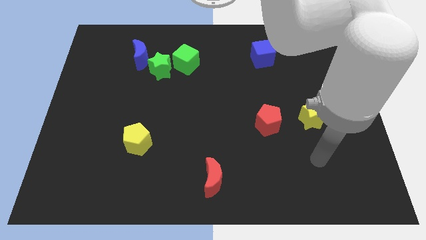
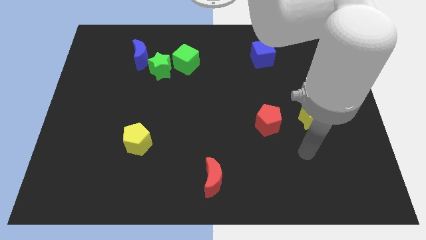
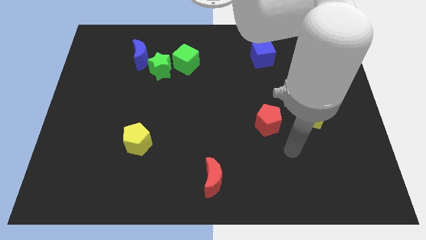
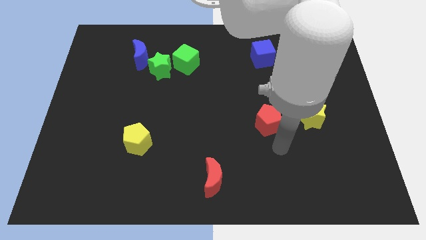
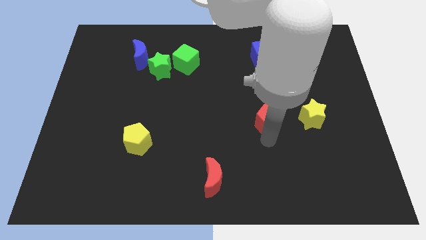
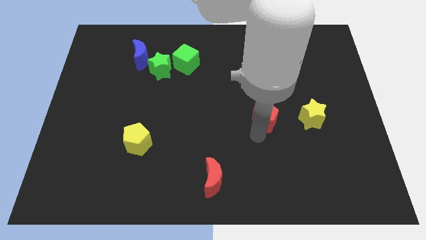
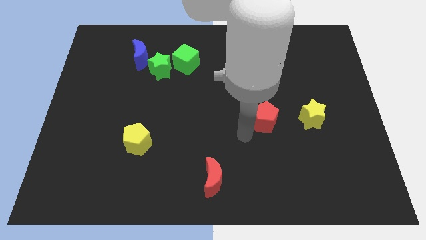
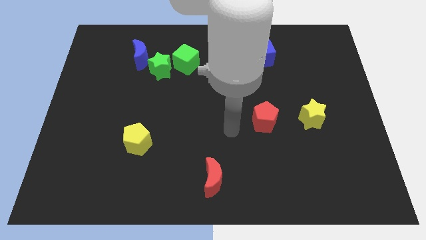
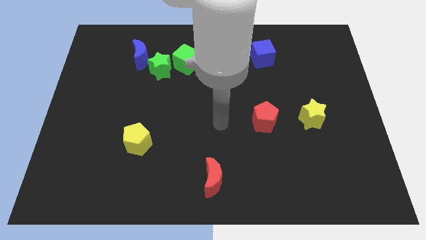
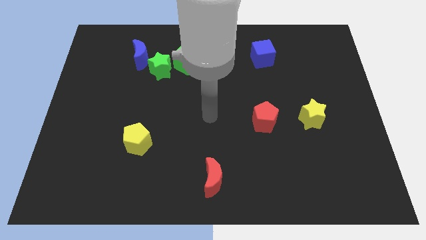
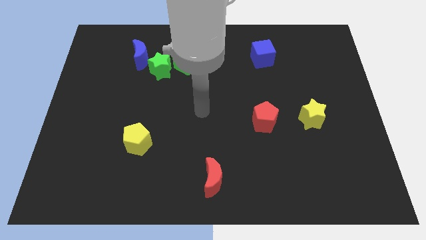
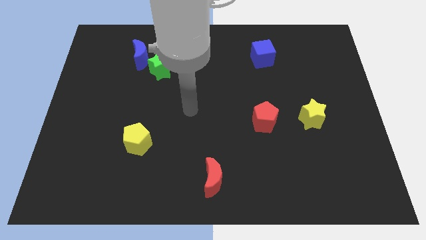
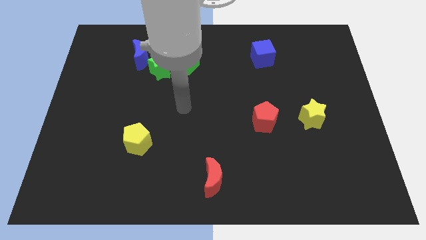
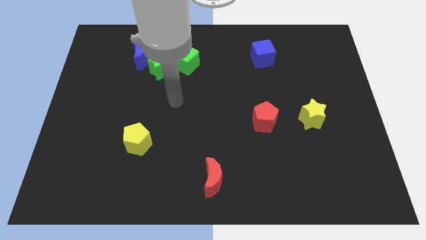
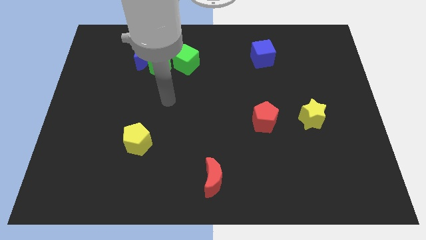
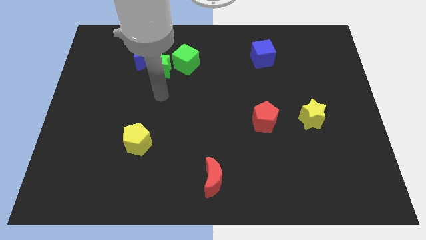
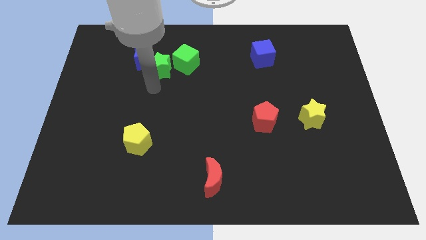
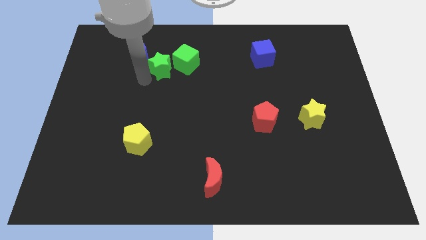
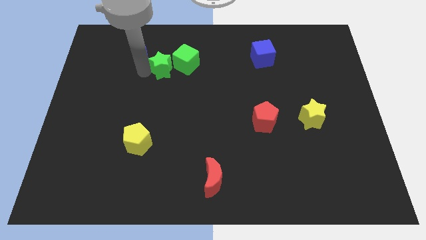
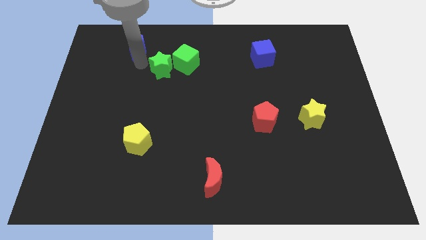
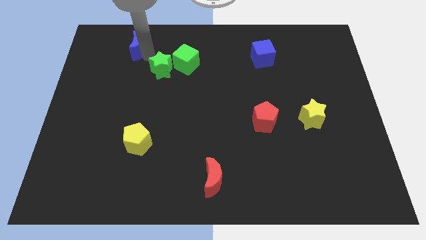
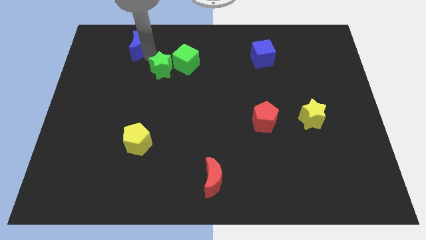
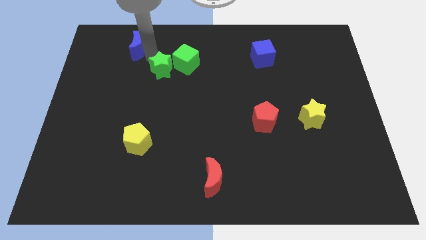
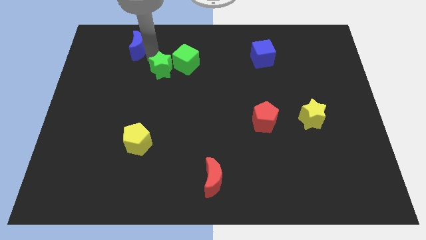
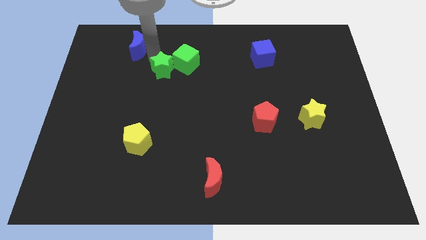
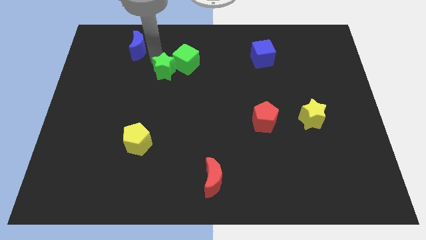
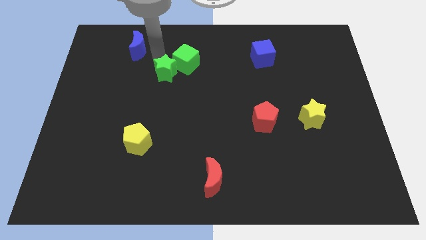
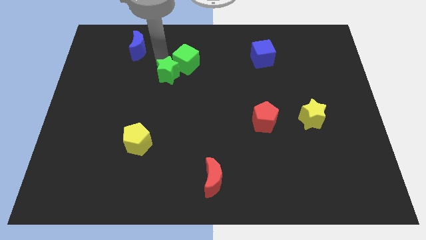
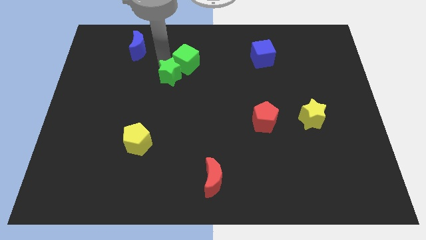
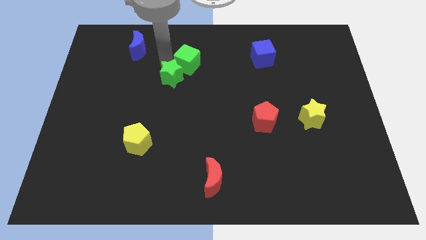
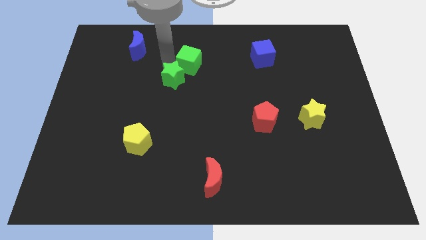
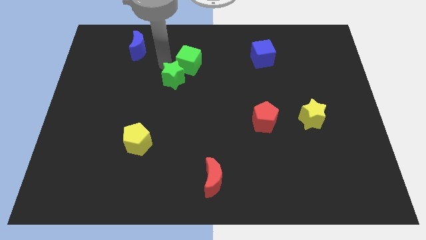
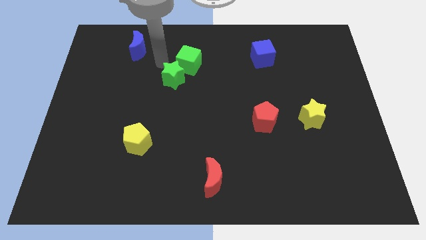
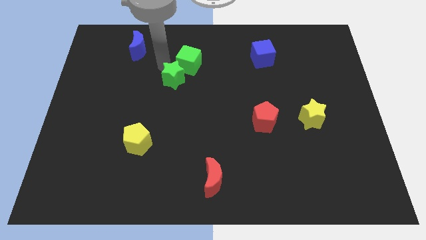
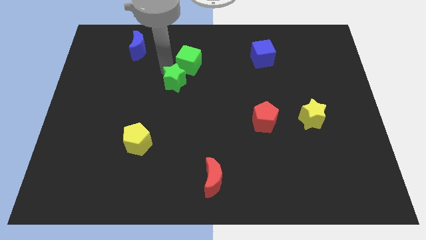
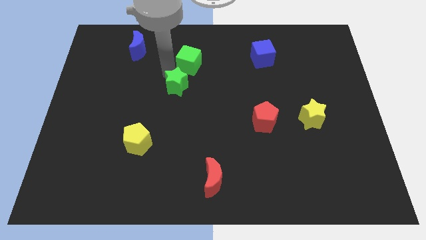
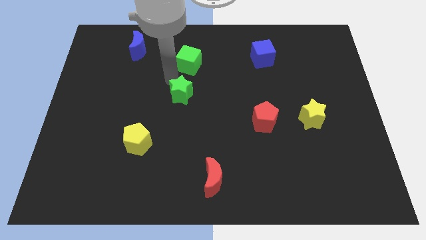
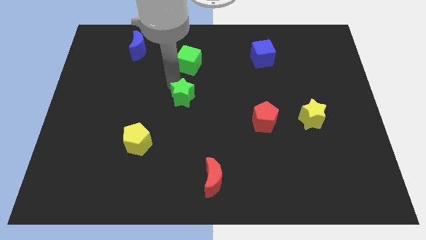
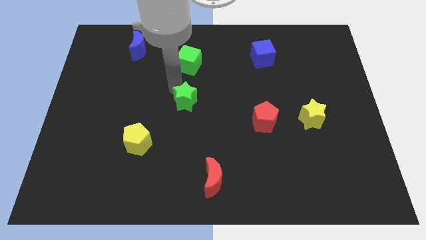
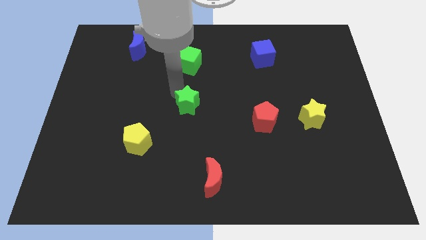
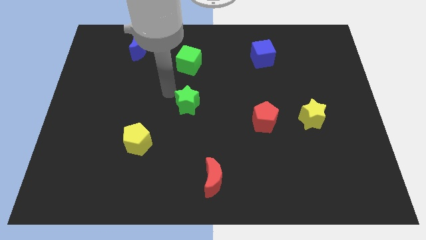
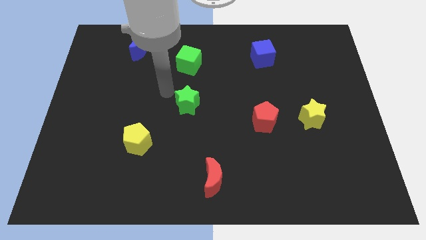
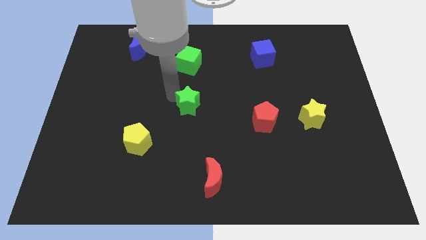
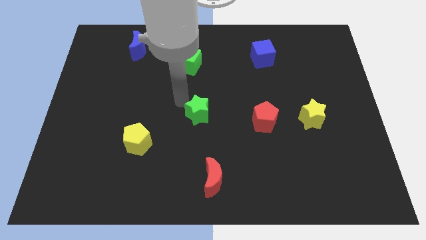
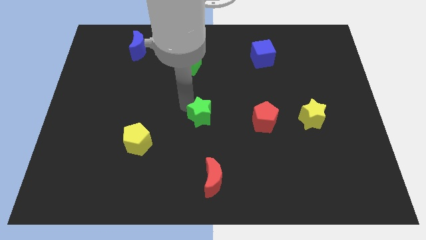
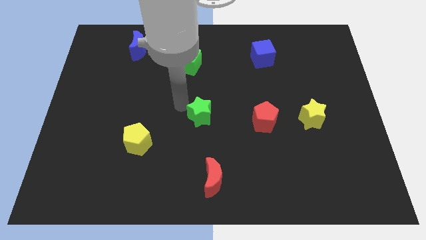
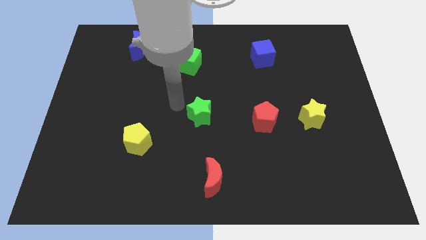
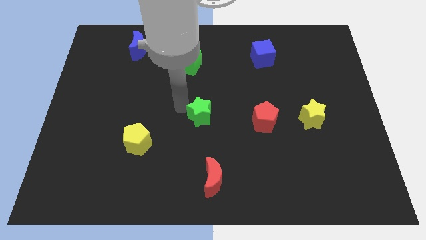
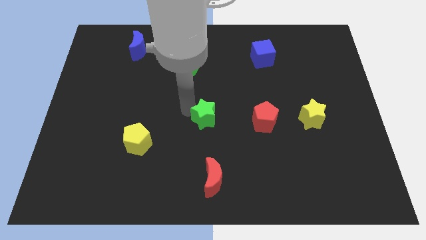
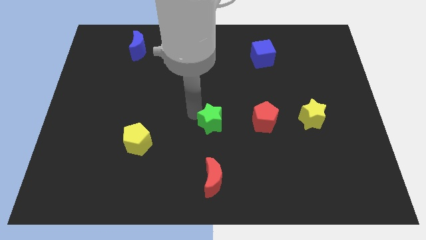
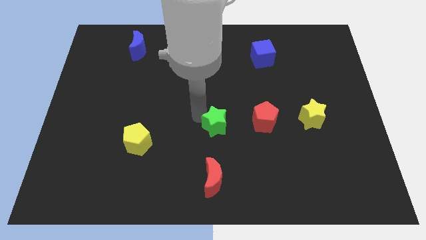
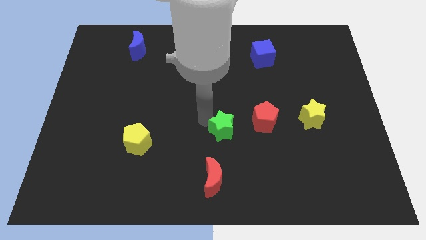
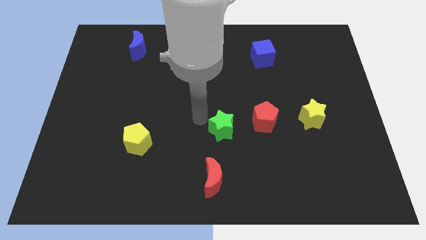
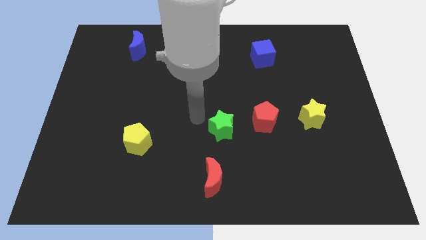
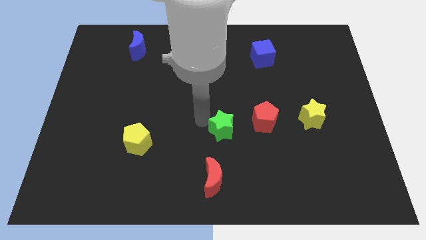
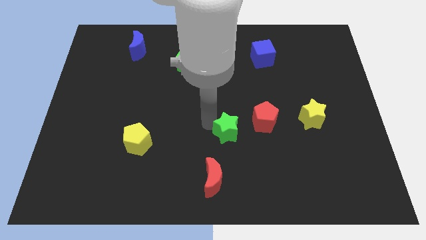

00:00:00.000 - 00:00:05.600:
put the green star diagonally down and to the left of the red pentagon

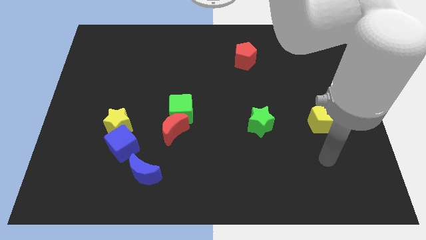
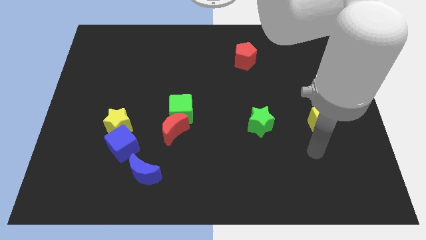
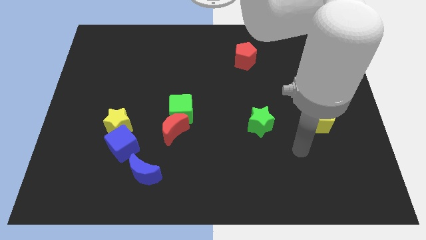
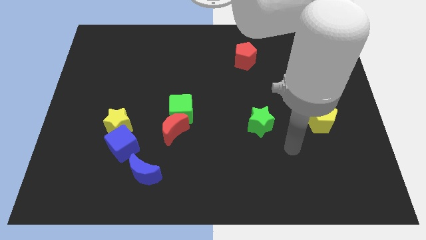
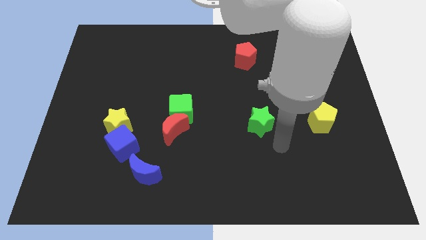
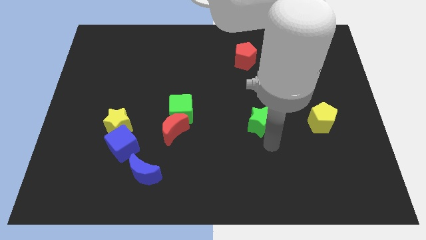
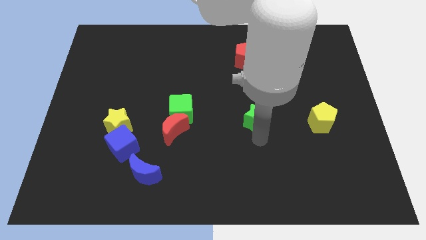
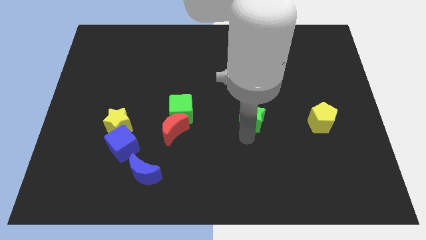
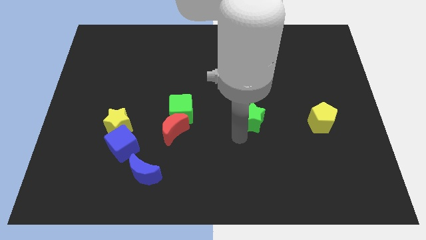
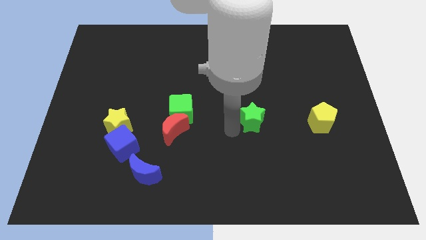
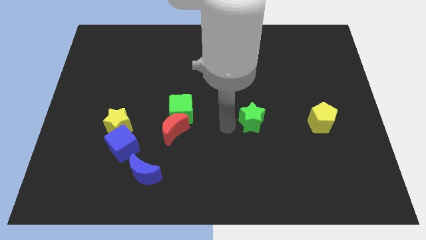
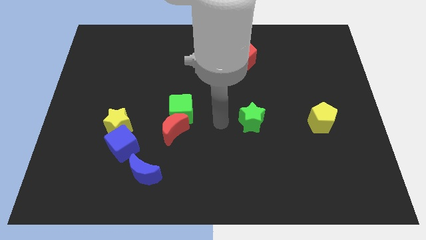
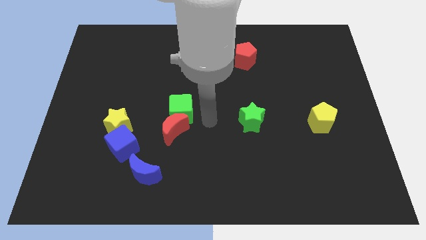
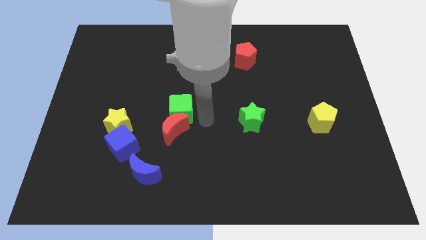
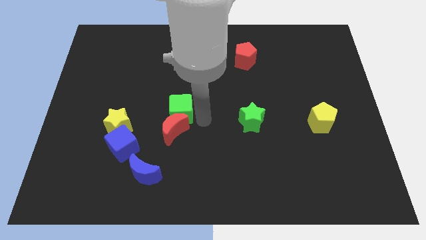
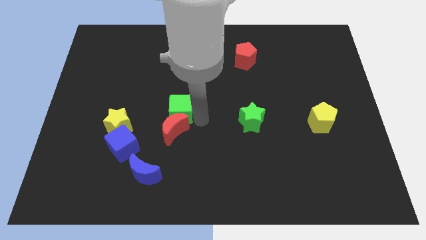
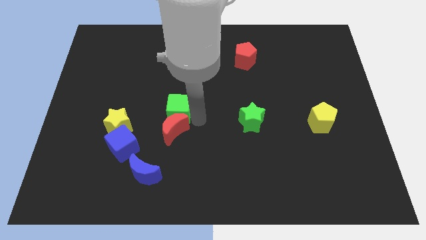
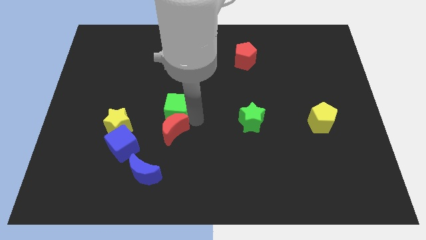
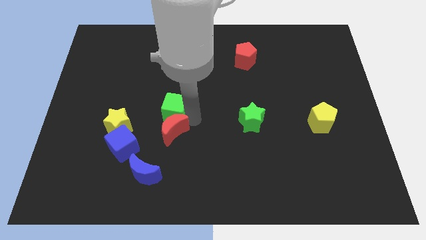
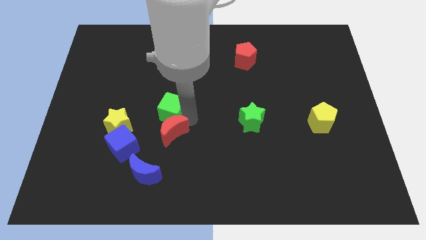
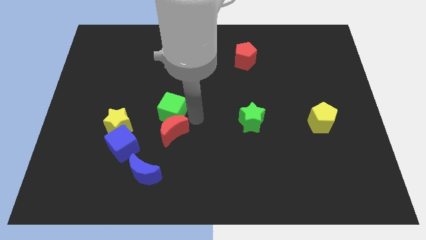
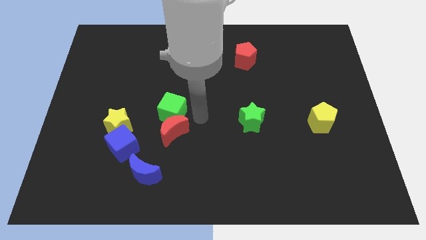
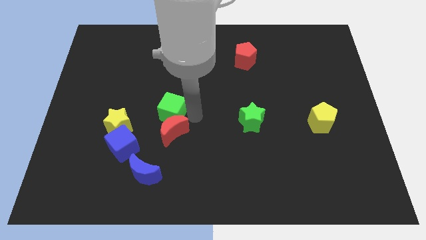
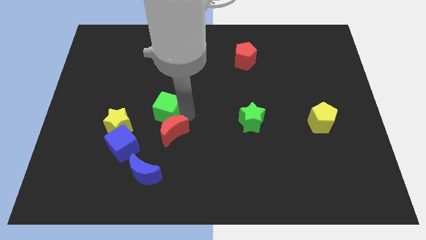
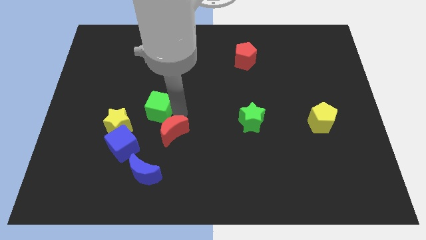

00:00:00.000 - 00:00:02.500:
put the green cube diagonally up and to the right of the yellow star
